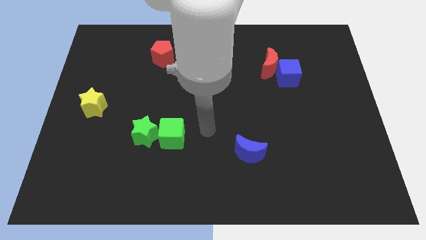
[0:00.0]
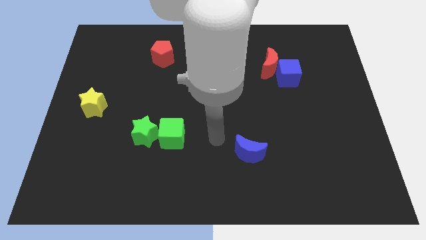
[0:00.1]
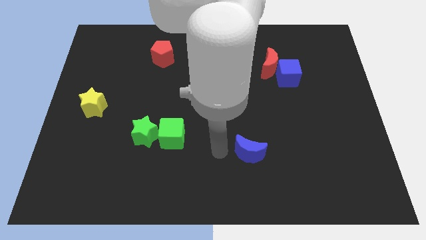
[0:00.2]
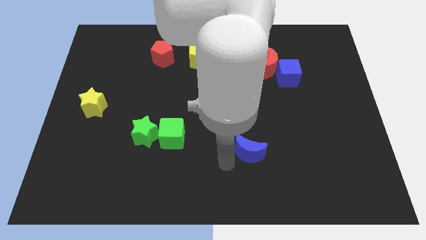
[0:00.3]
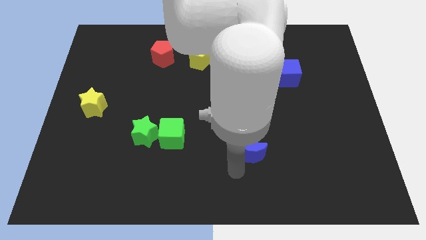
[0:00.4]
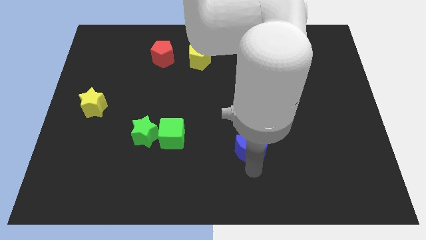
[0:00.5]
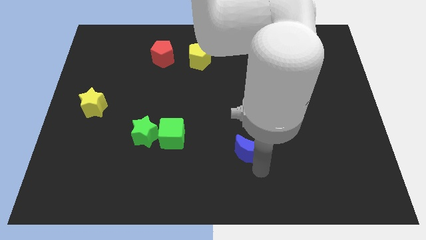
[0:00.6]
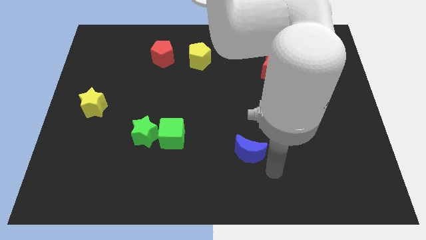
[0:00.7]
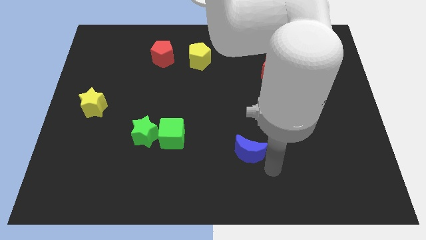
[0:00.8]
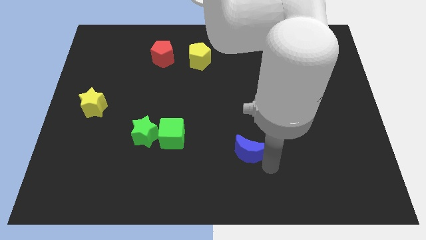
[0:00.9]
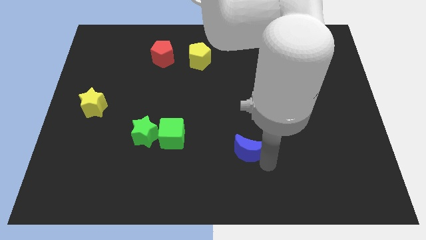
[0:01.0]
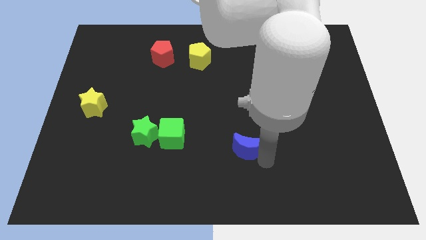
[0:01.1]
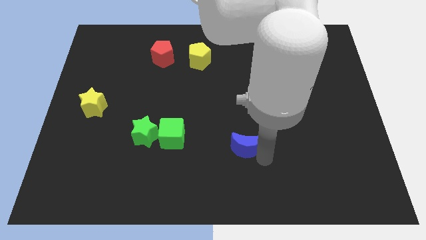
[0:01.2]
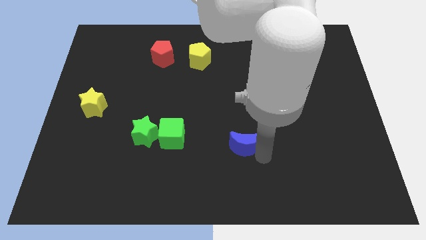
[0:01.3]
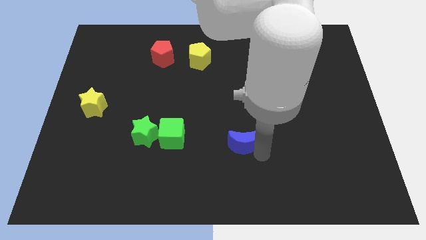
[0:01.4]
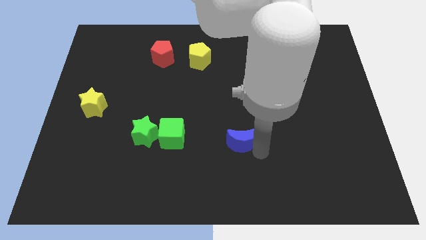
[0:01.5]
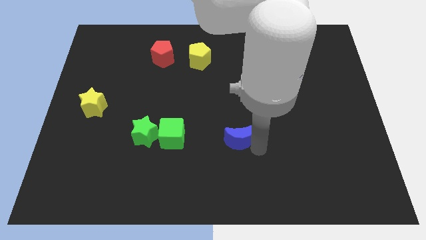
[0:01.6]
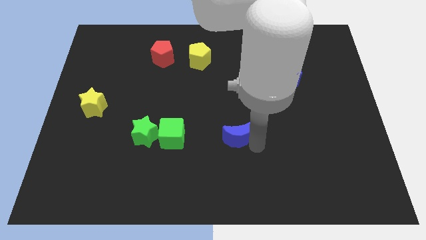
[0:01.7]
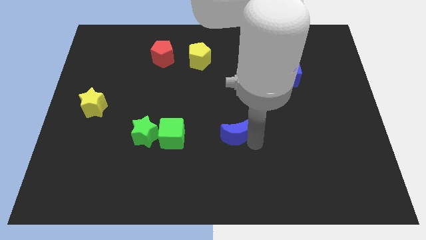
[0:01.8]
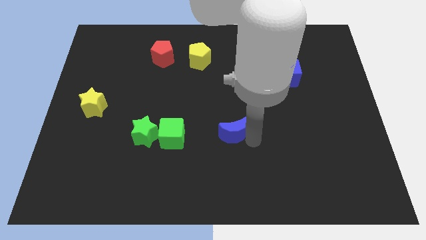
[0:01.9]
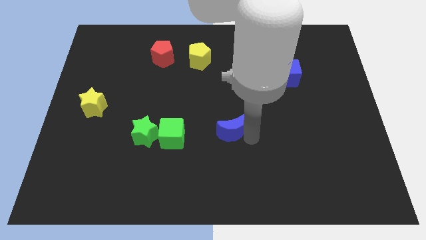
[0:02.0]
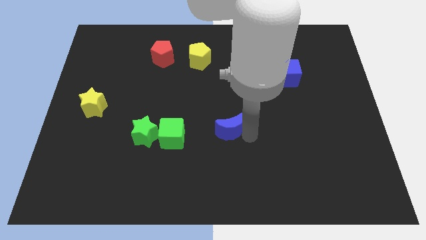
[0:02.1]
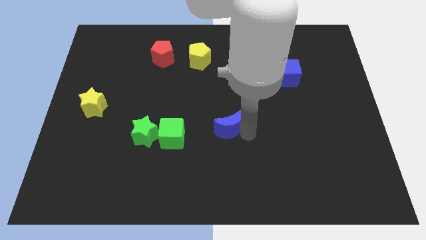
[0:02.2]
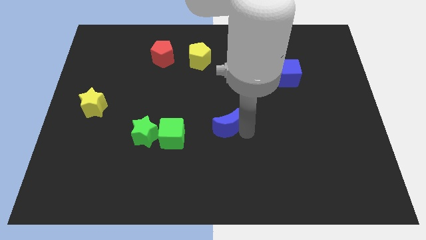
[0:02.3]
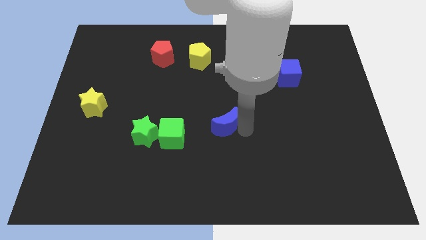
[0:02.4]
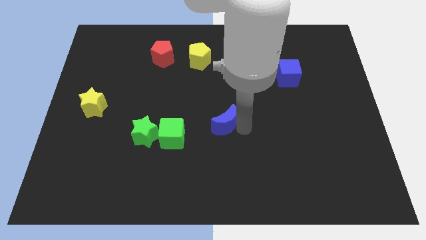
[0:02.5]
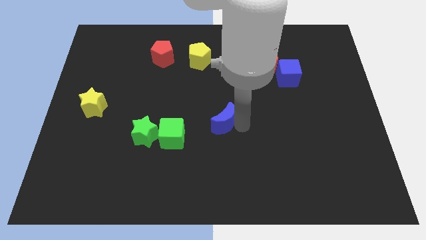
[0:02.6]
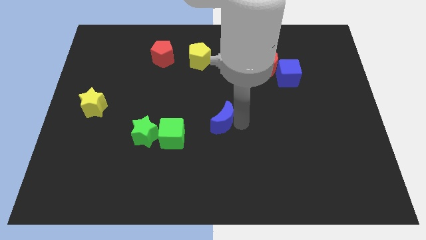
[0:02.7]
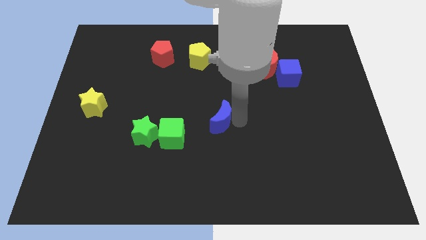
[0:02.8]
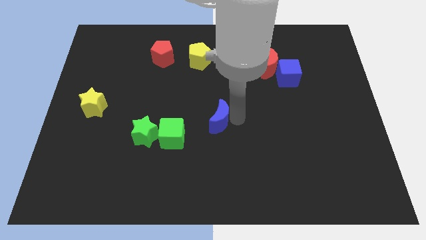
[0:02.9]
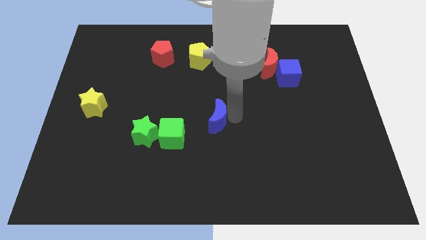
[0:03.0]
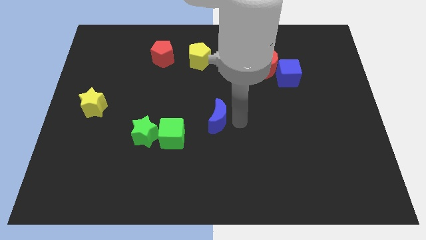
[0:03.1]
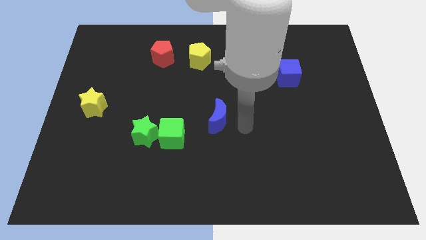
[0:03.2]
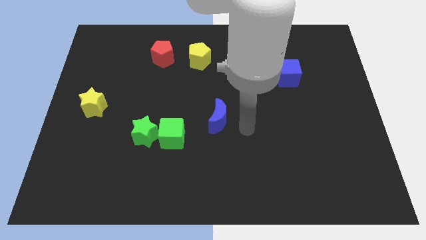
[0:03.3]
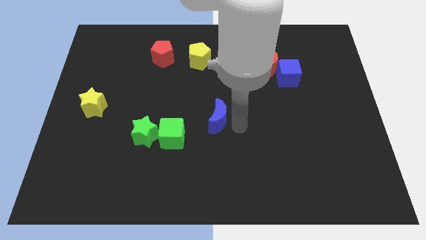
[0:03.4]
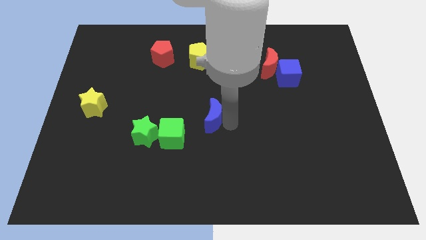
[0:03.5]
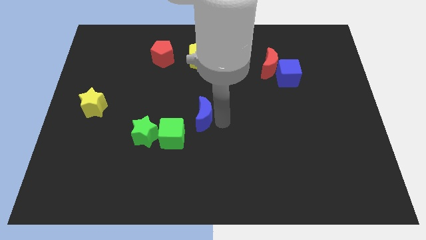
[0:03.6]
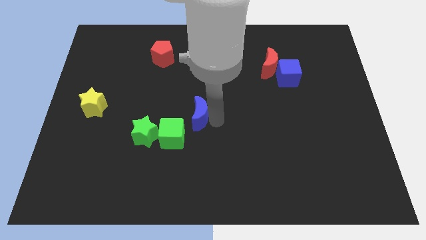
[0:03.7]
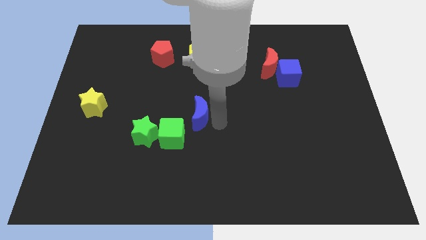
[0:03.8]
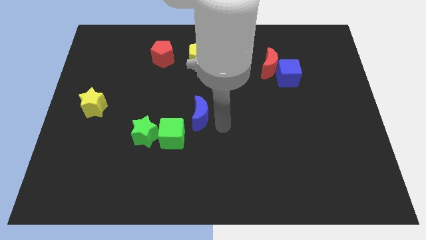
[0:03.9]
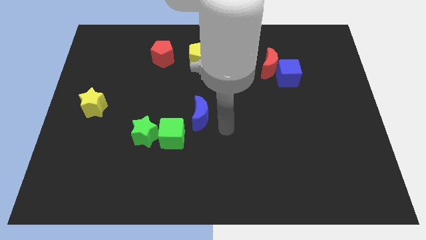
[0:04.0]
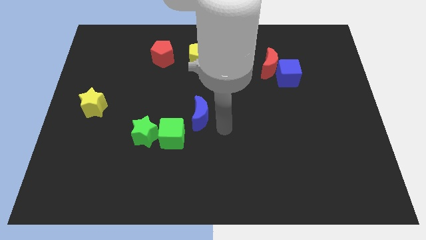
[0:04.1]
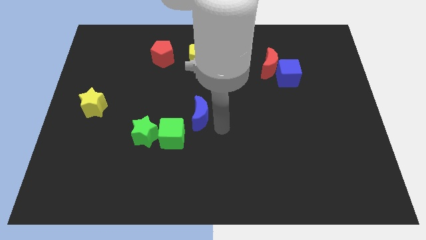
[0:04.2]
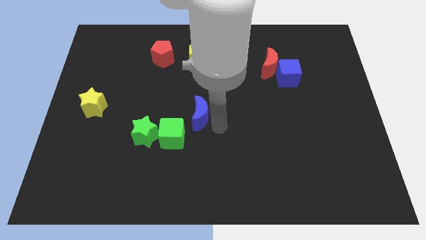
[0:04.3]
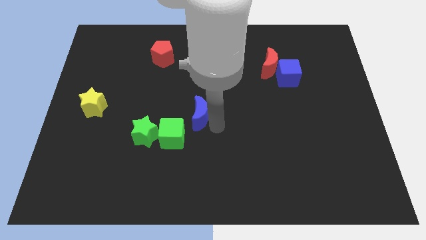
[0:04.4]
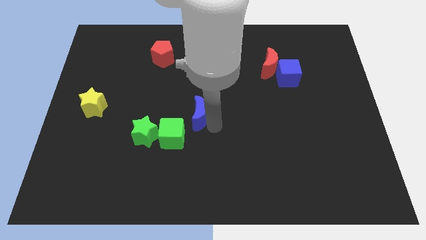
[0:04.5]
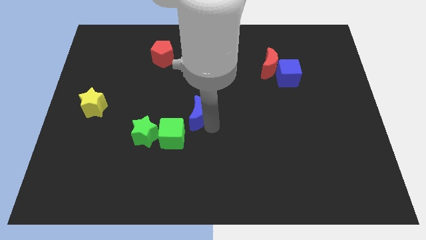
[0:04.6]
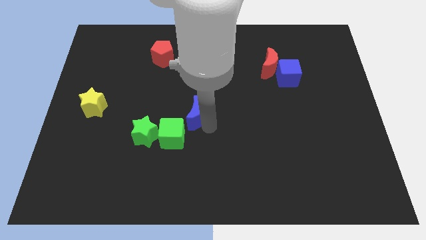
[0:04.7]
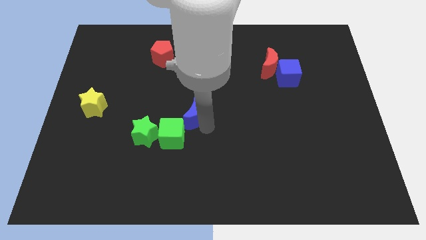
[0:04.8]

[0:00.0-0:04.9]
move the blue moon to the top of the green cube

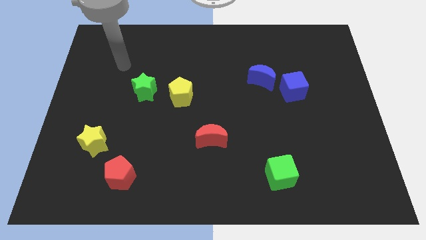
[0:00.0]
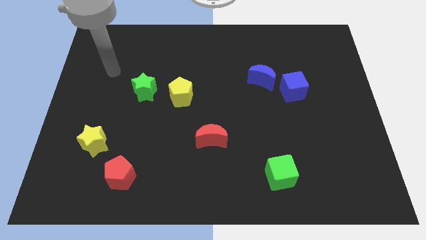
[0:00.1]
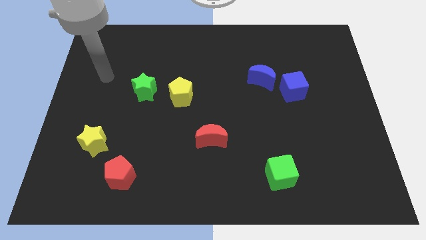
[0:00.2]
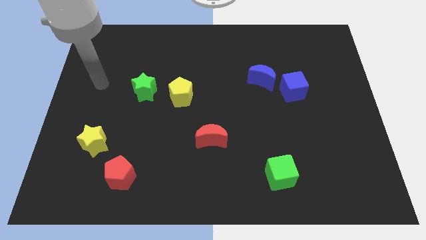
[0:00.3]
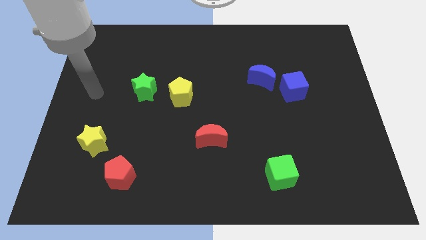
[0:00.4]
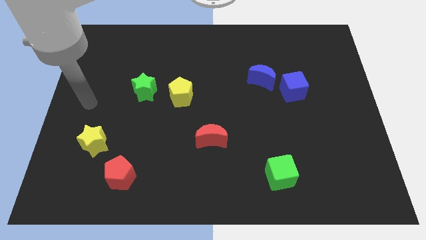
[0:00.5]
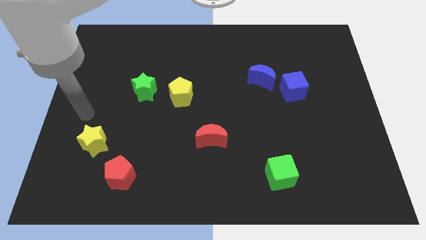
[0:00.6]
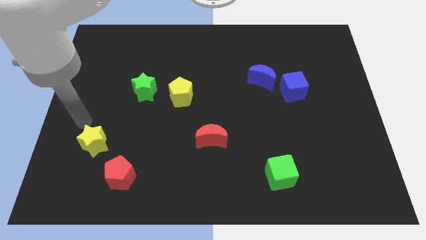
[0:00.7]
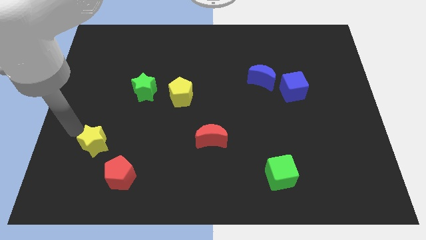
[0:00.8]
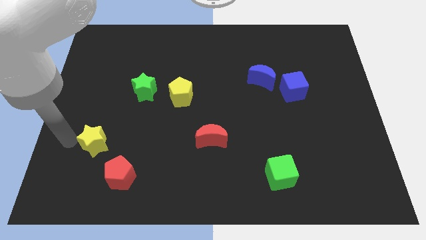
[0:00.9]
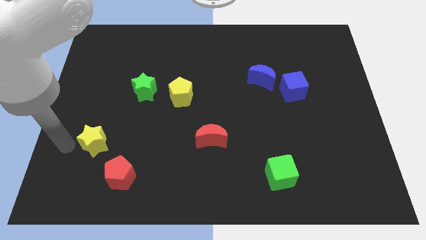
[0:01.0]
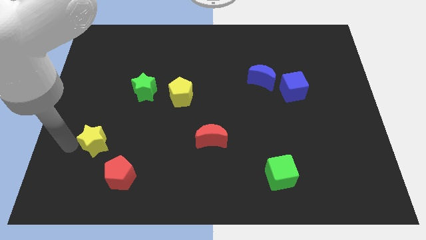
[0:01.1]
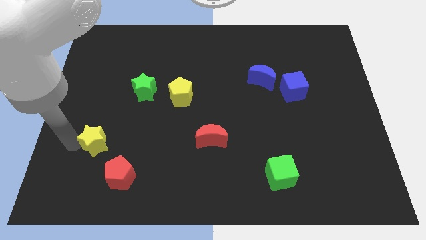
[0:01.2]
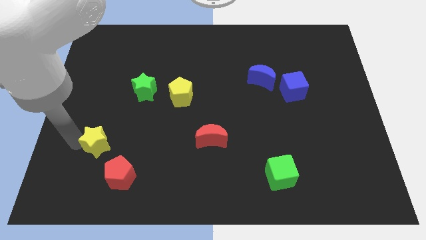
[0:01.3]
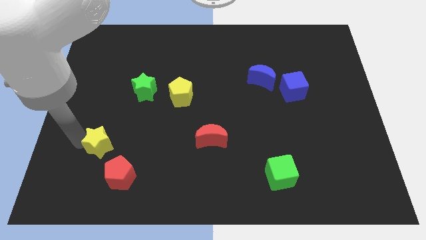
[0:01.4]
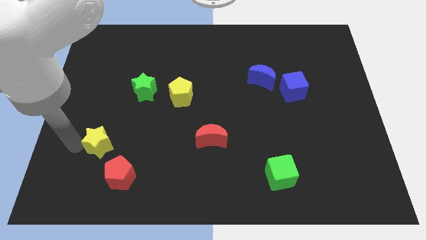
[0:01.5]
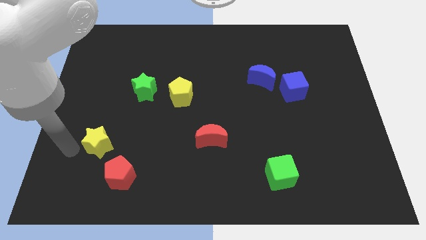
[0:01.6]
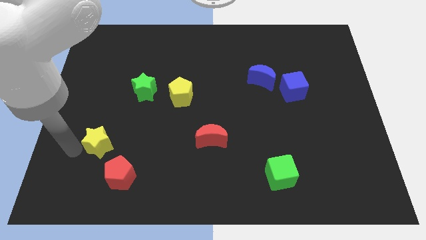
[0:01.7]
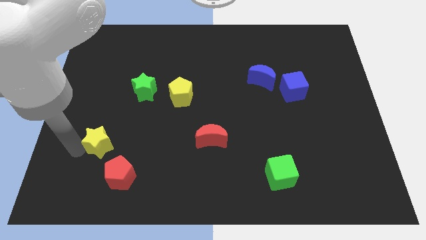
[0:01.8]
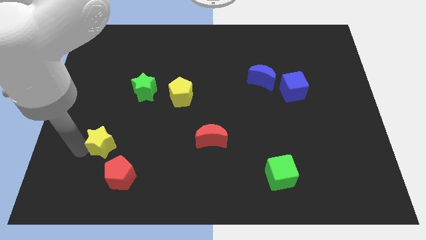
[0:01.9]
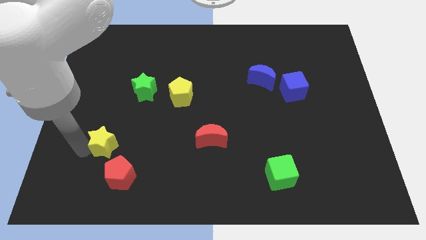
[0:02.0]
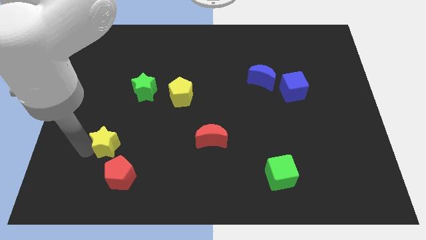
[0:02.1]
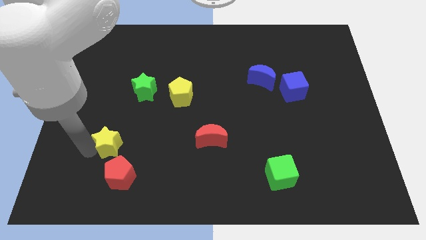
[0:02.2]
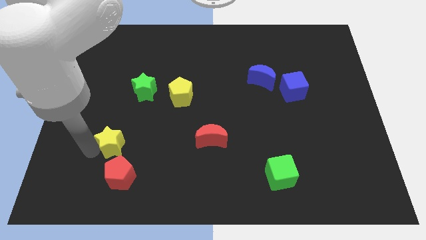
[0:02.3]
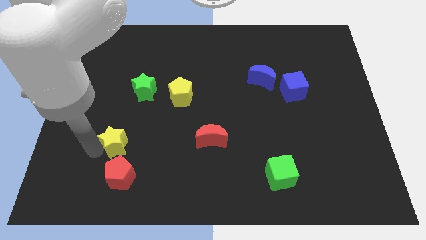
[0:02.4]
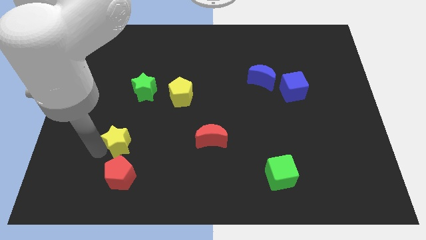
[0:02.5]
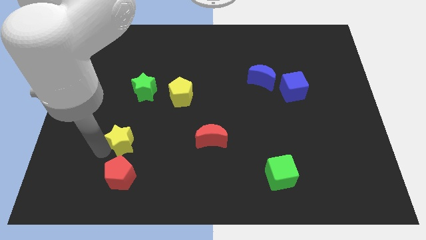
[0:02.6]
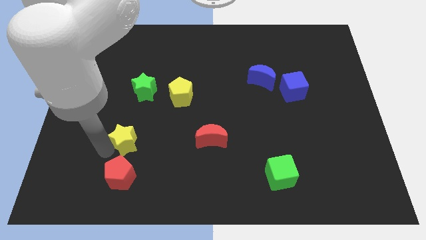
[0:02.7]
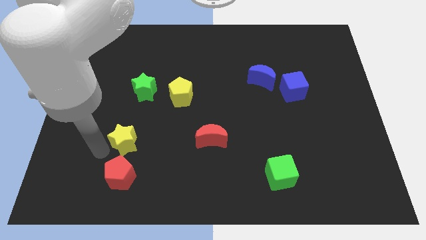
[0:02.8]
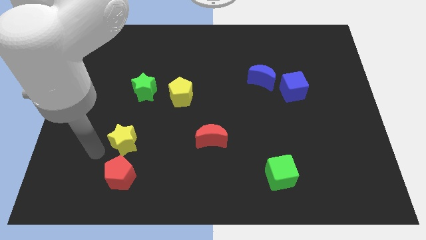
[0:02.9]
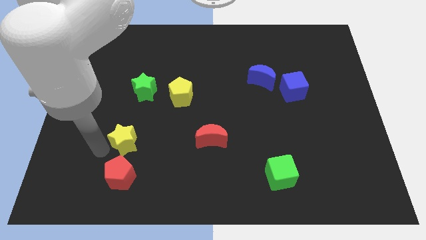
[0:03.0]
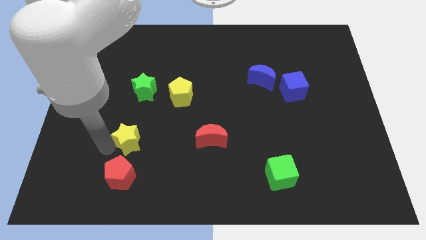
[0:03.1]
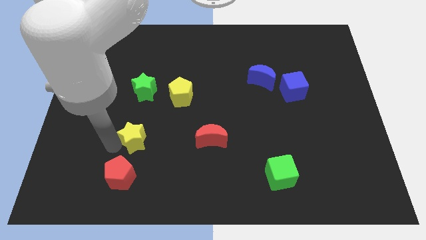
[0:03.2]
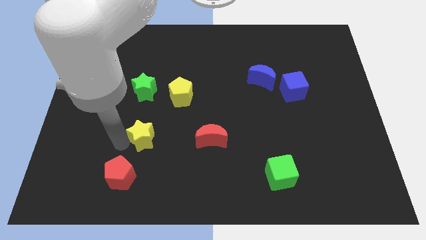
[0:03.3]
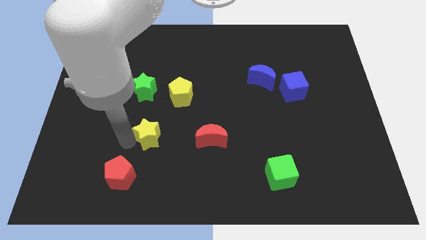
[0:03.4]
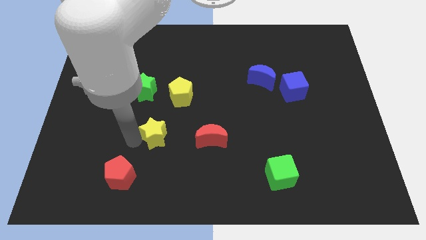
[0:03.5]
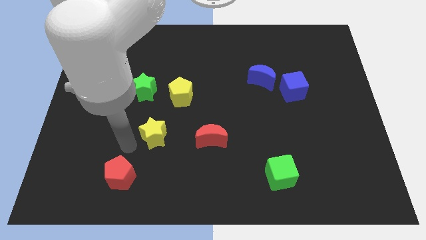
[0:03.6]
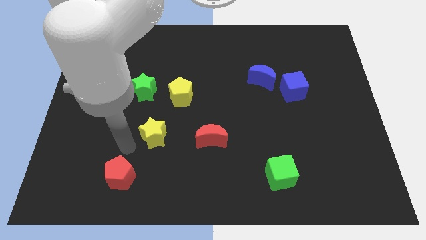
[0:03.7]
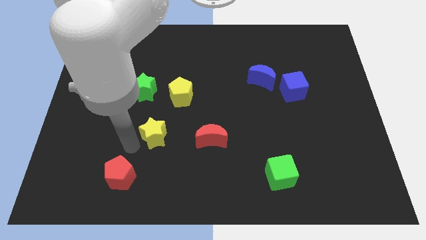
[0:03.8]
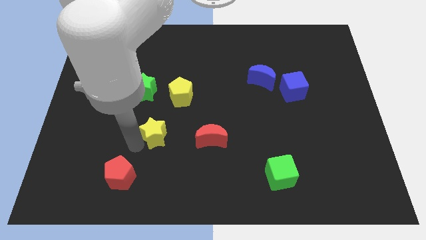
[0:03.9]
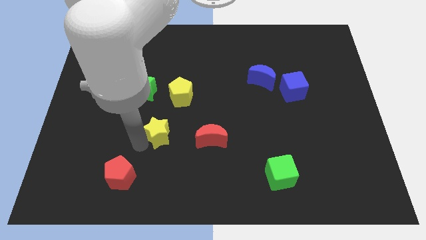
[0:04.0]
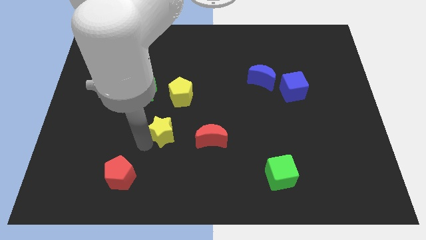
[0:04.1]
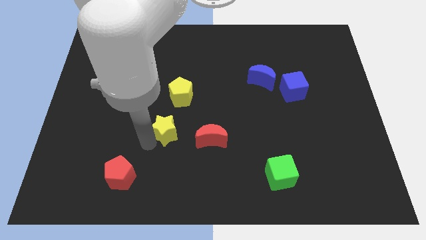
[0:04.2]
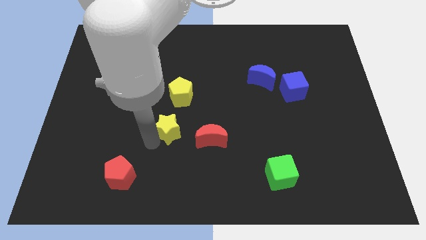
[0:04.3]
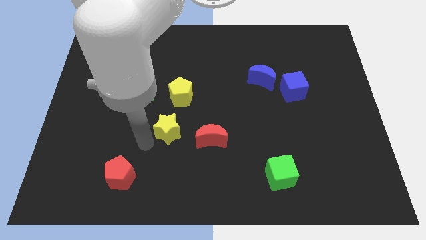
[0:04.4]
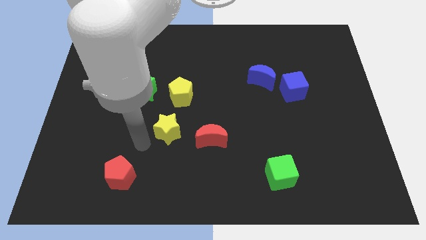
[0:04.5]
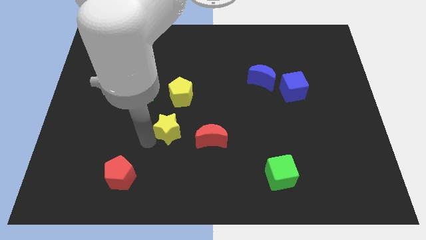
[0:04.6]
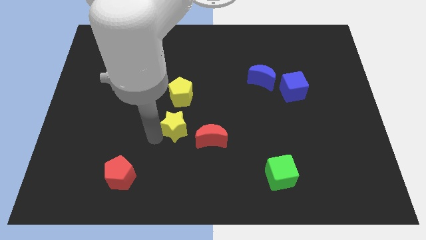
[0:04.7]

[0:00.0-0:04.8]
slide the yellow star to the top left side of the red moon
